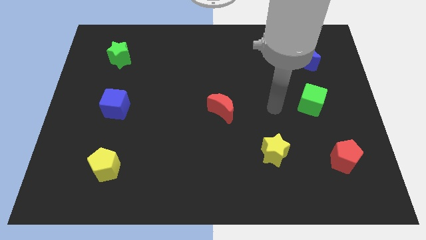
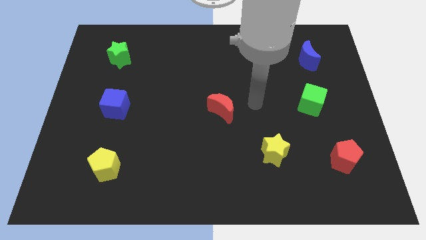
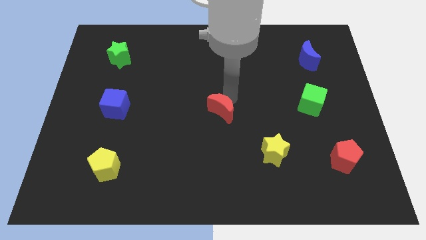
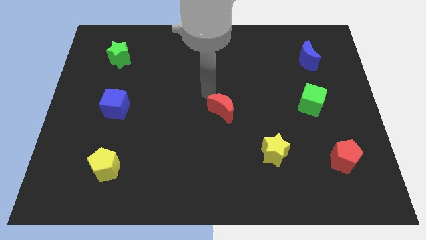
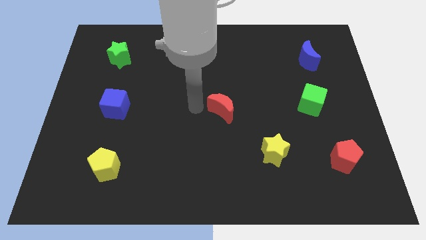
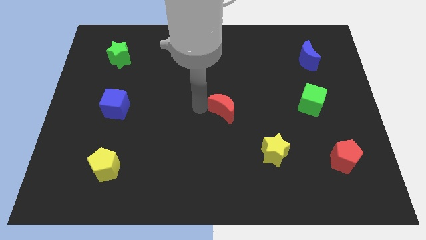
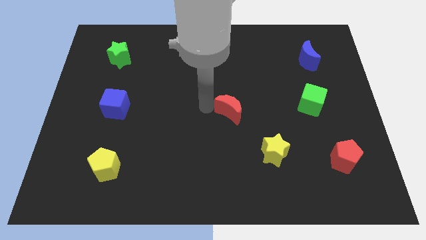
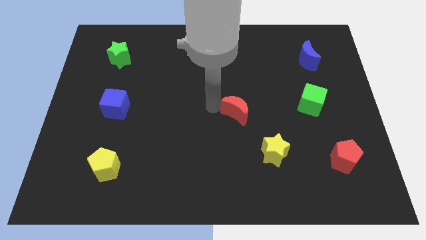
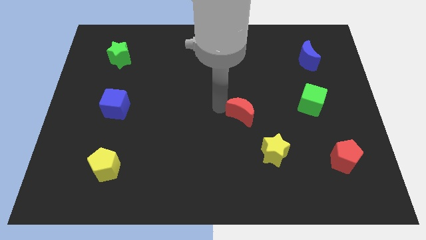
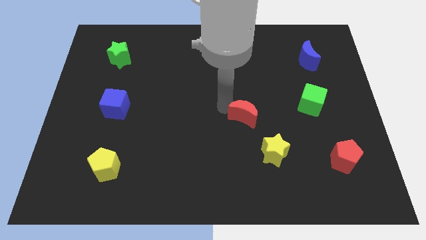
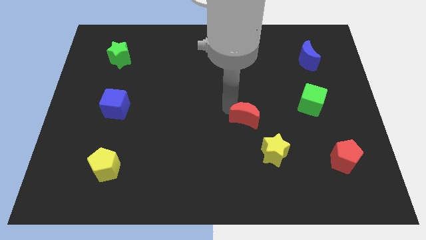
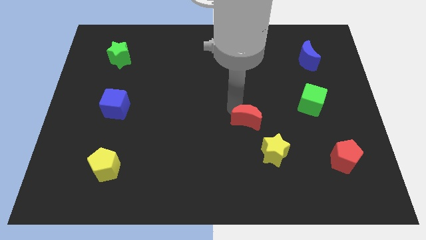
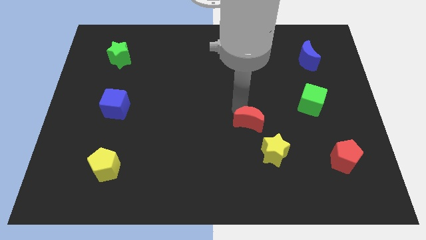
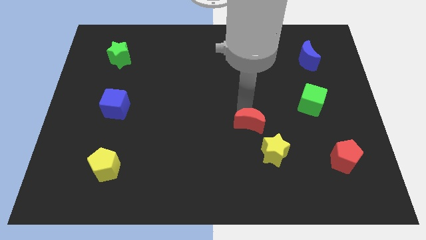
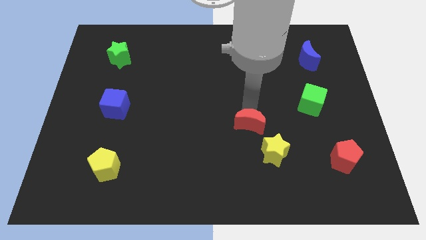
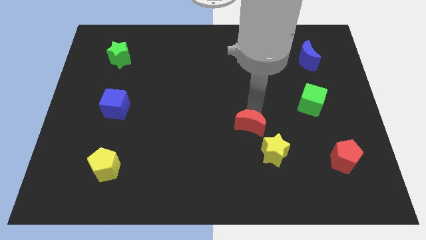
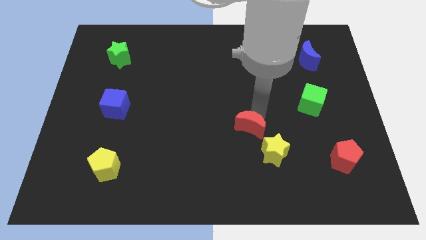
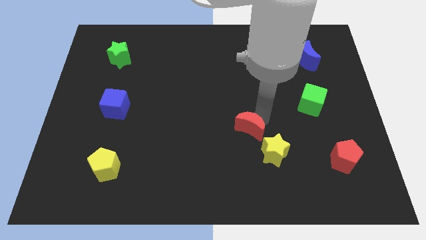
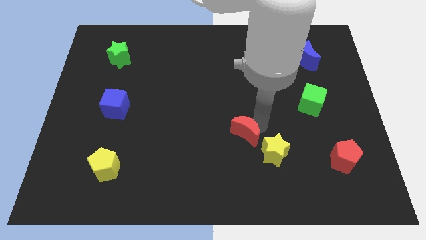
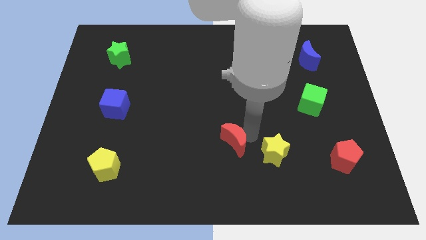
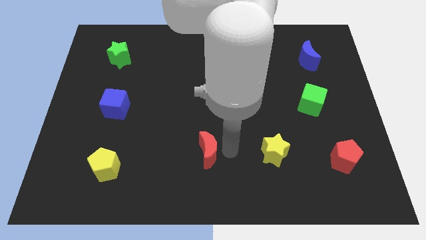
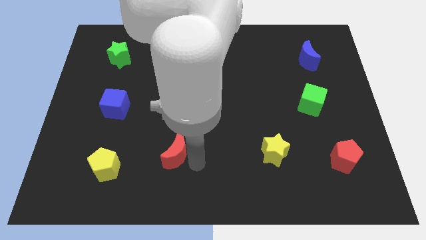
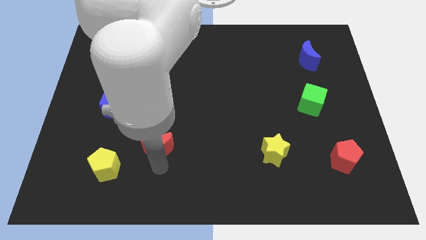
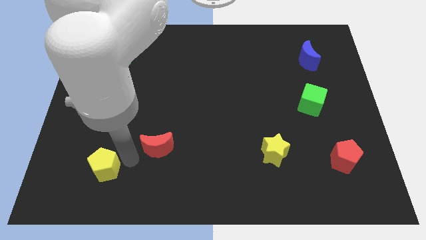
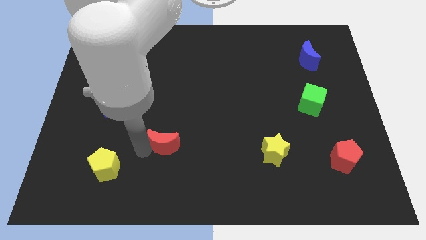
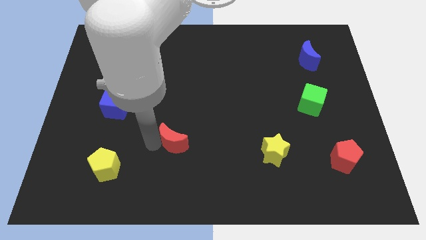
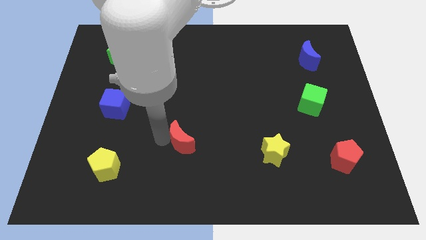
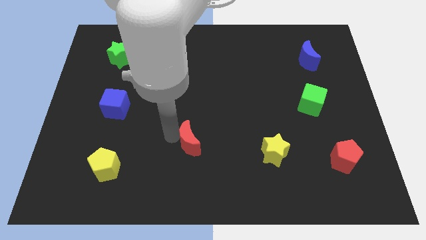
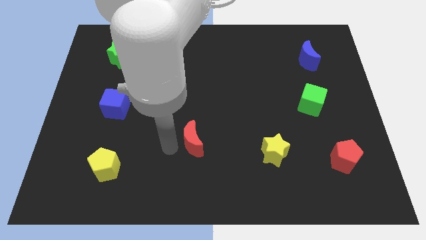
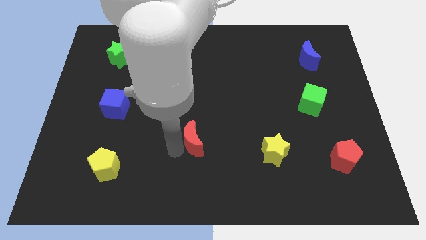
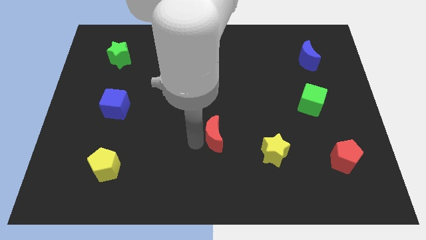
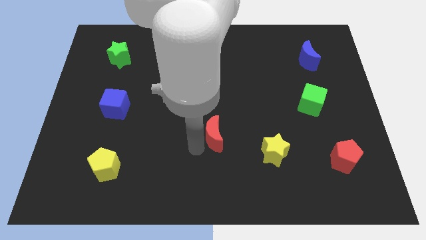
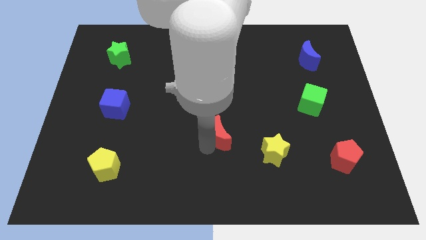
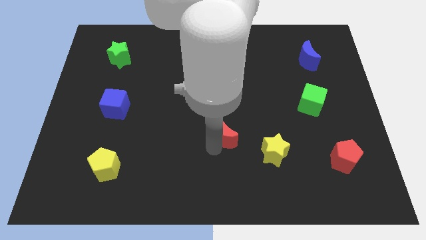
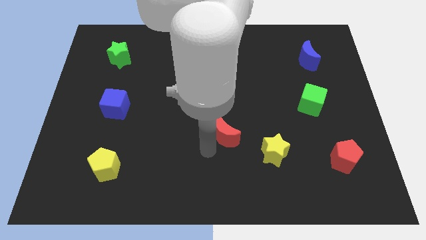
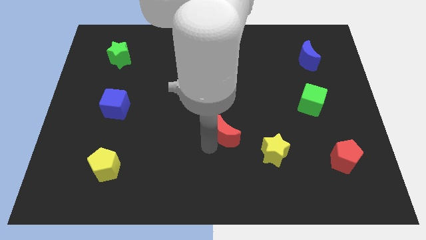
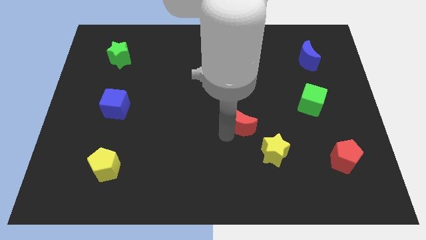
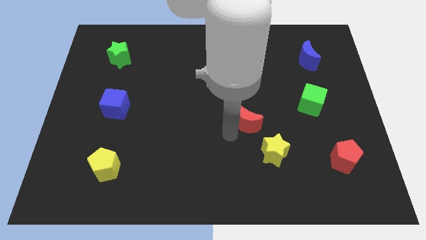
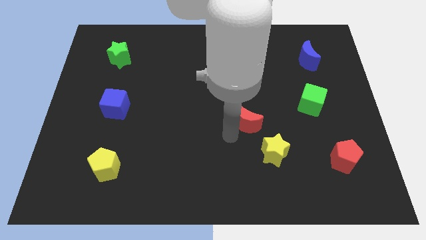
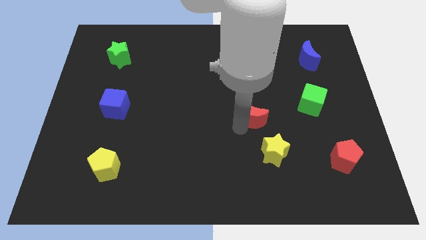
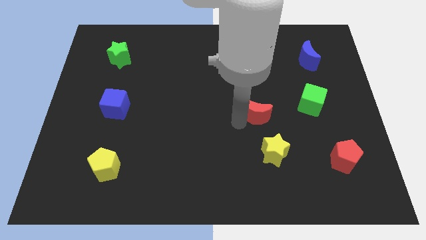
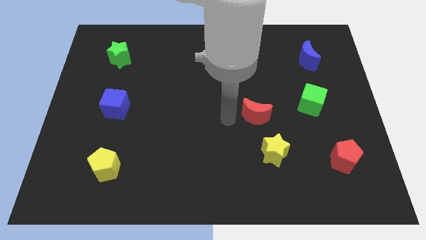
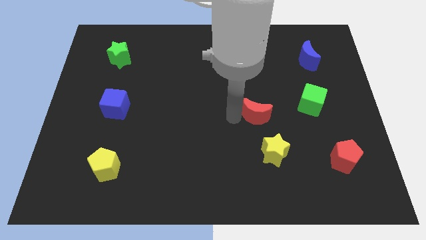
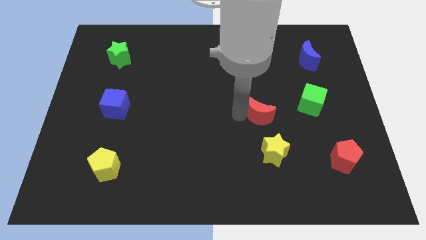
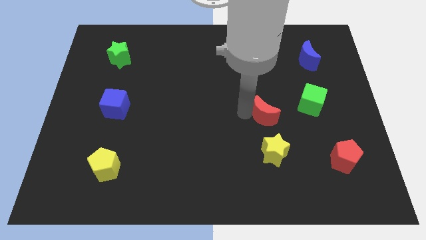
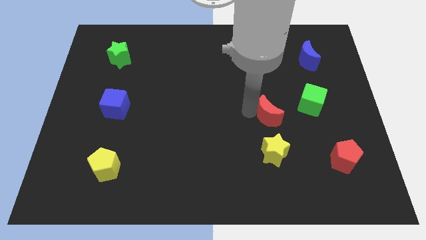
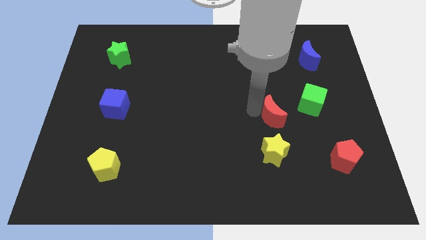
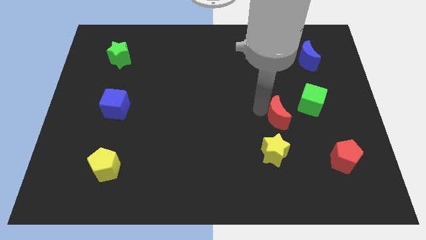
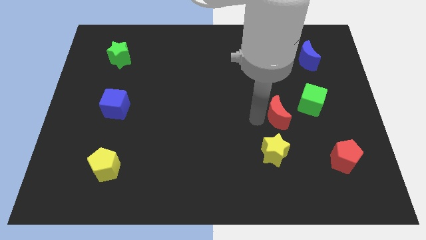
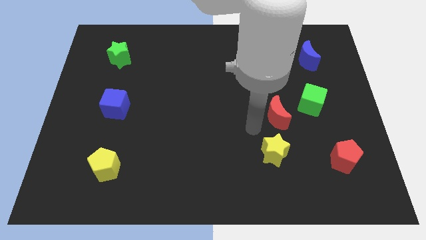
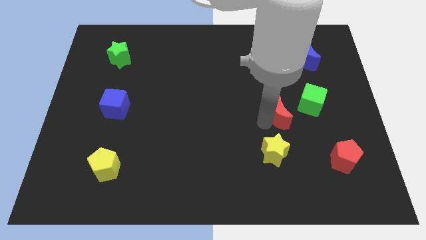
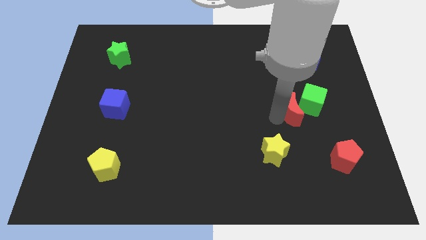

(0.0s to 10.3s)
slide the red moon to the green cube

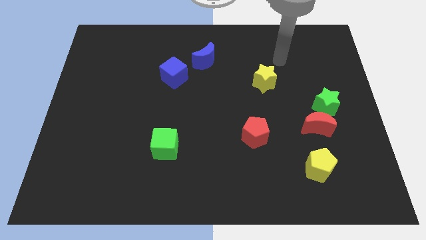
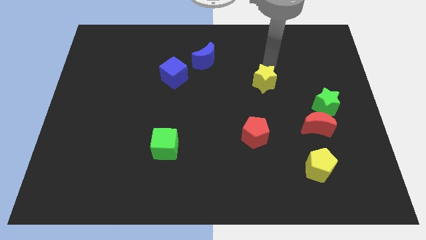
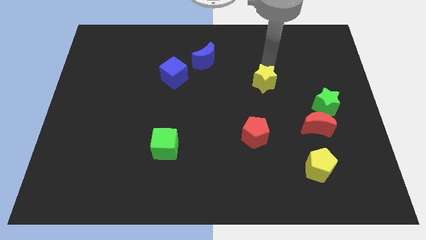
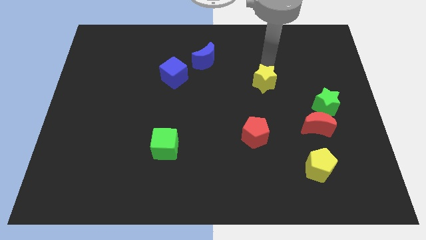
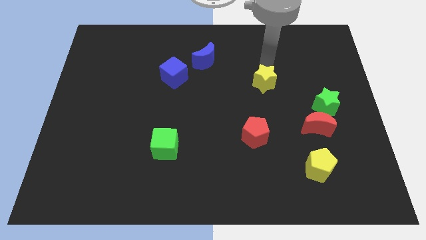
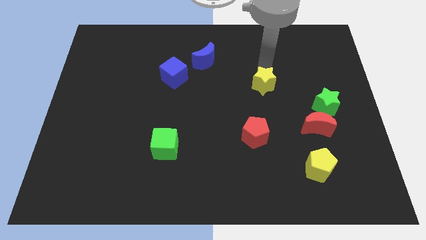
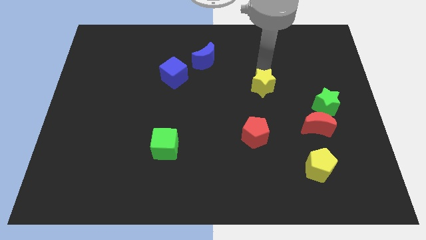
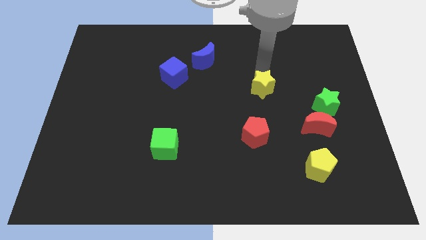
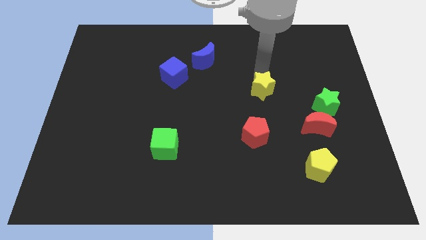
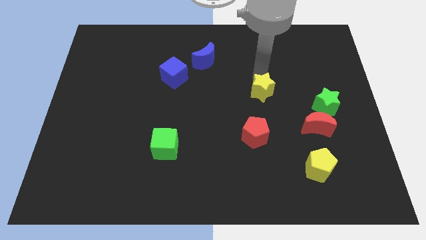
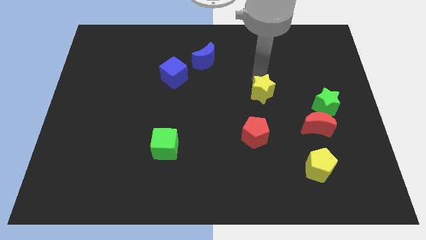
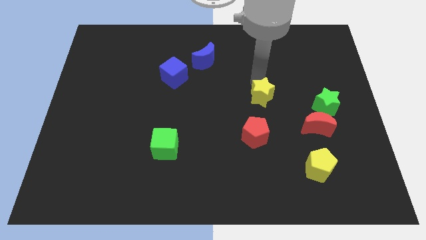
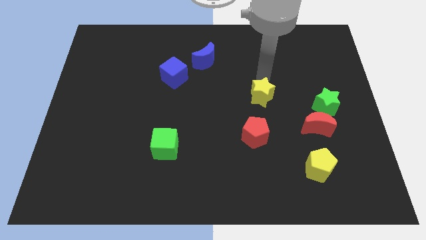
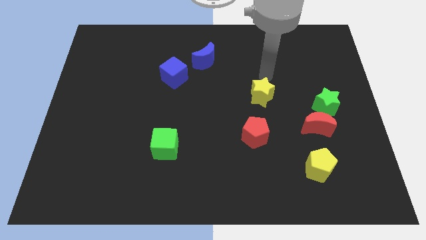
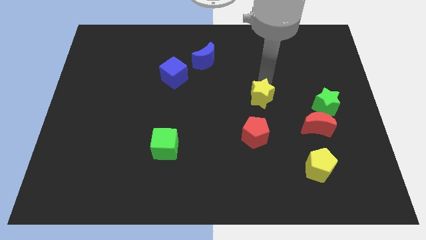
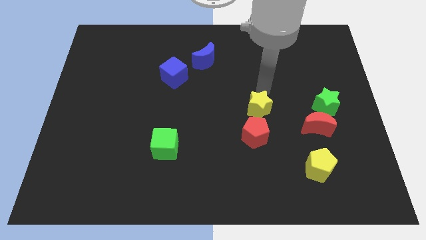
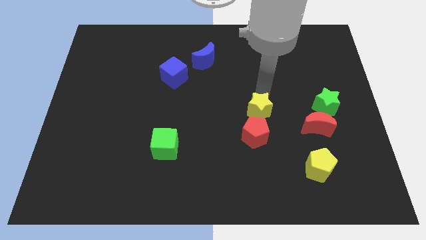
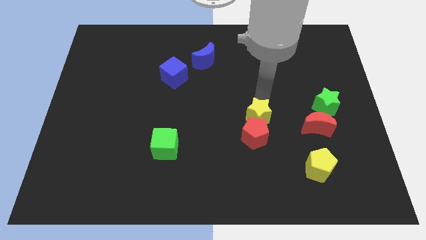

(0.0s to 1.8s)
move the yellow star towards the red pentagon

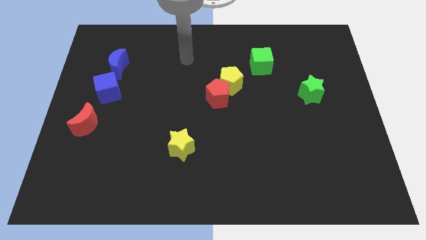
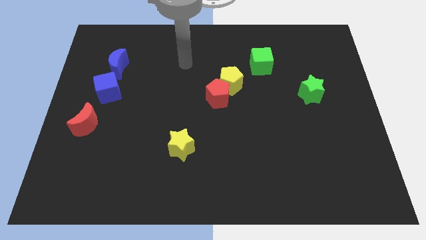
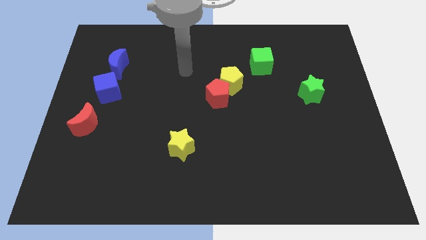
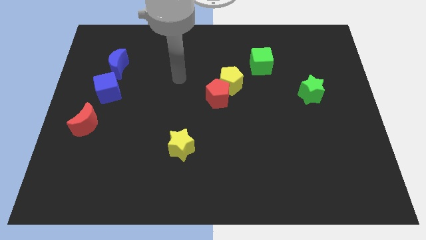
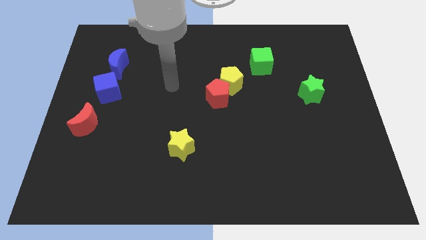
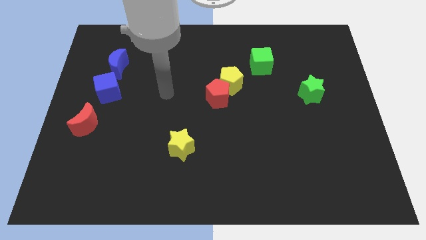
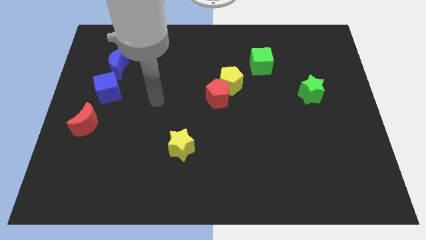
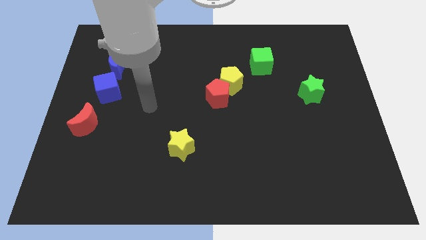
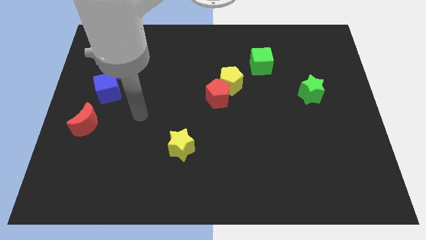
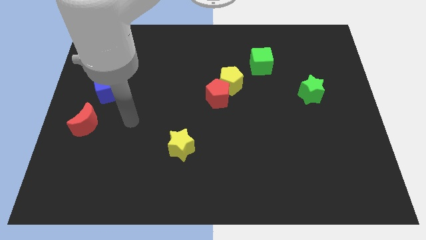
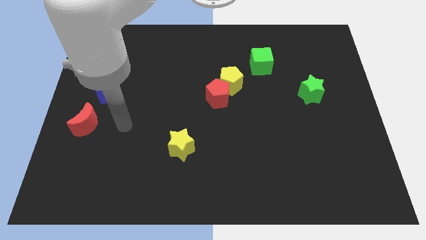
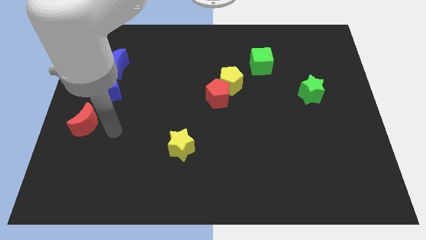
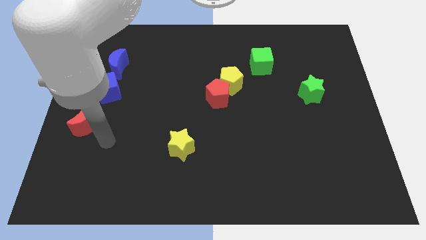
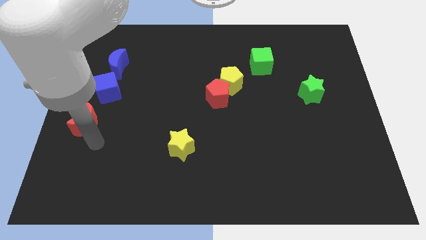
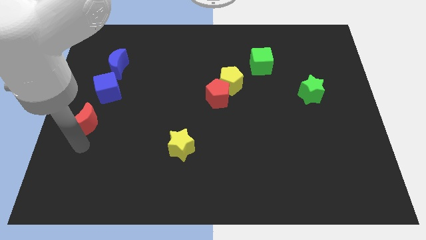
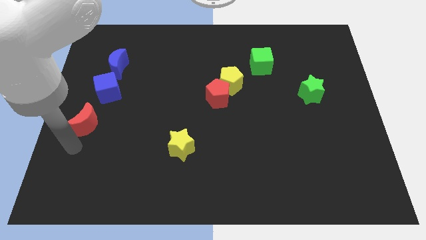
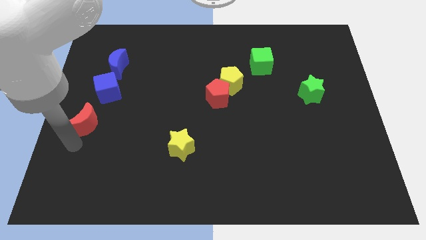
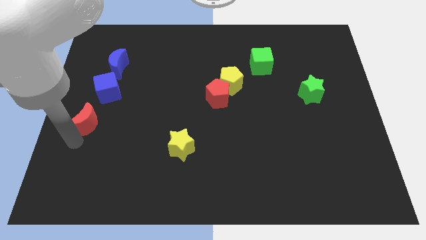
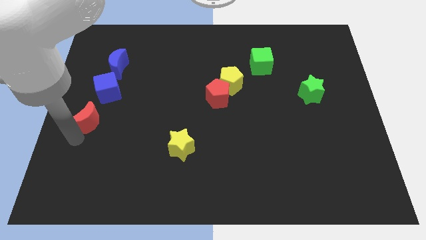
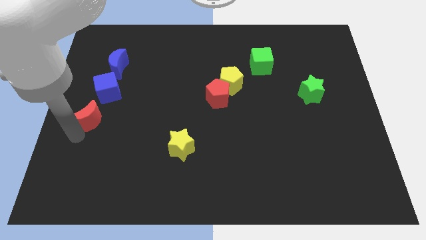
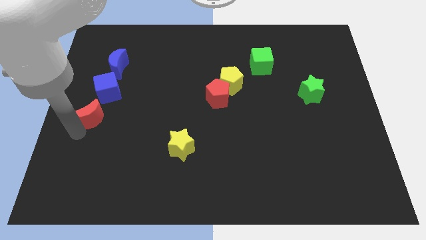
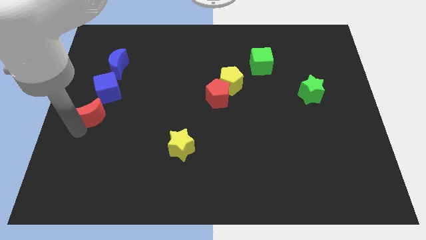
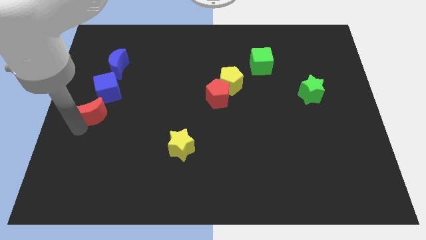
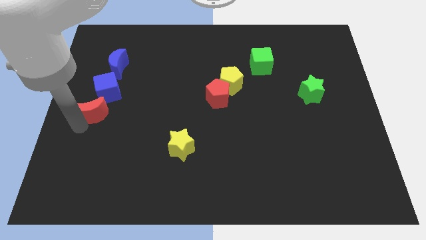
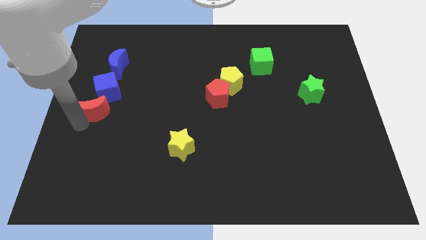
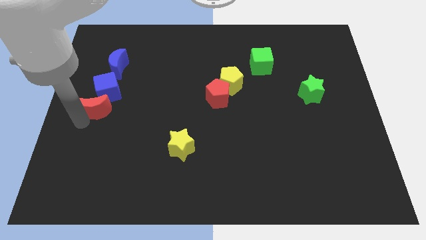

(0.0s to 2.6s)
move the red moon towards the blue cube
